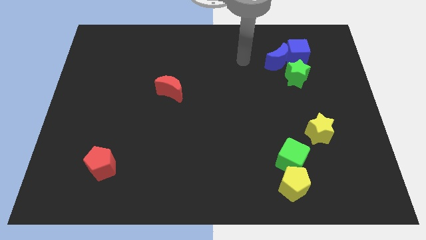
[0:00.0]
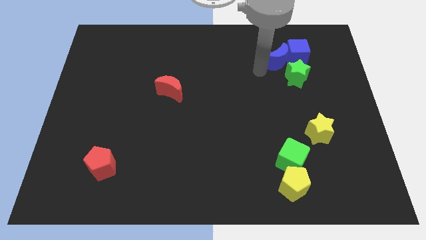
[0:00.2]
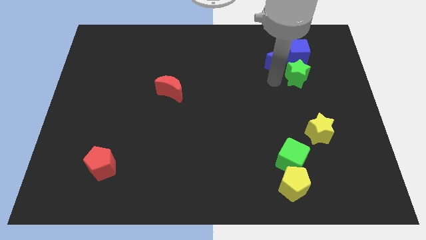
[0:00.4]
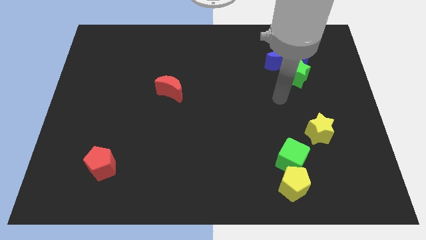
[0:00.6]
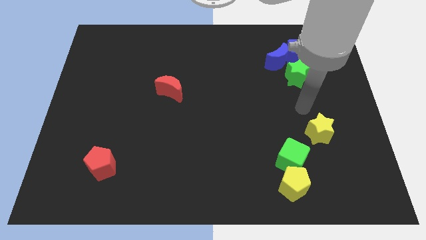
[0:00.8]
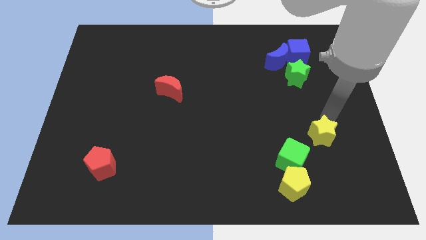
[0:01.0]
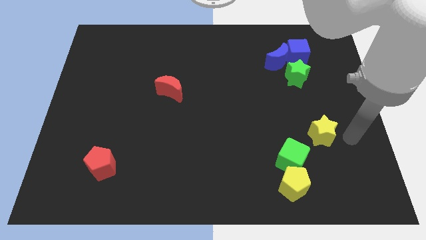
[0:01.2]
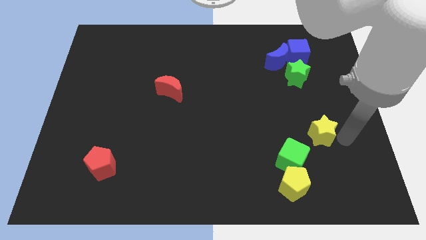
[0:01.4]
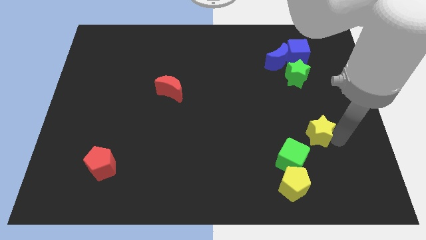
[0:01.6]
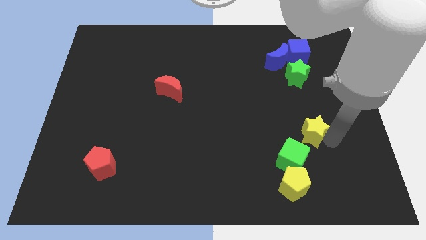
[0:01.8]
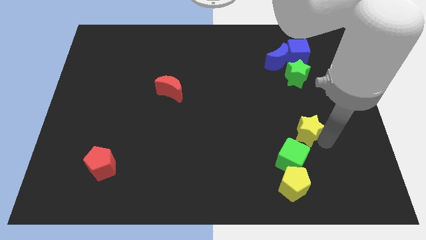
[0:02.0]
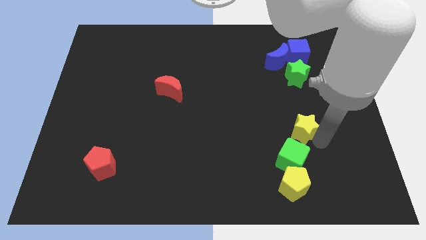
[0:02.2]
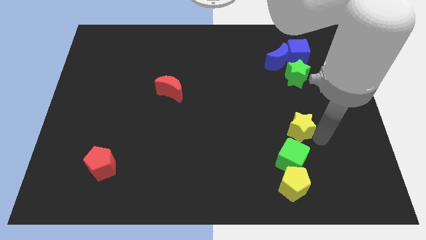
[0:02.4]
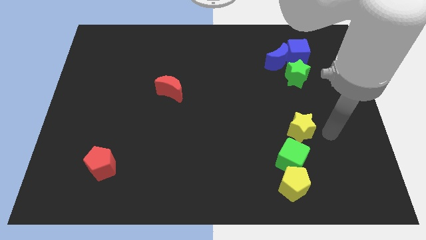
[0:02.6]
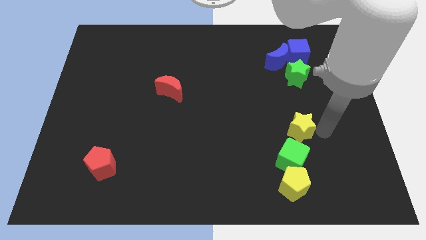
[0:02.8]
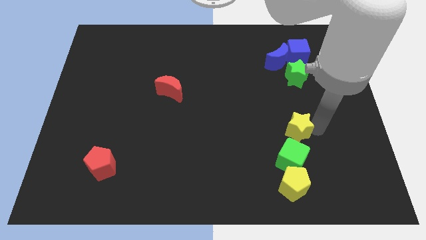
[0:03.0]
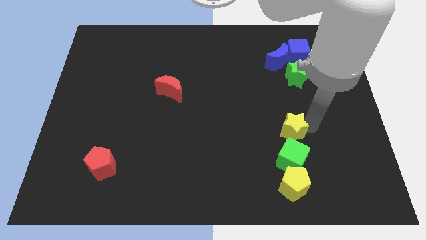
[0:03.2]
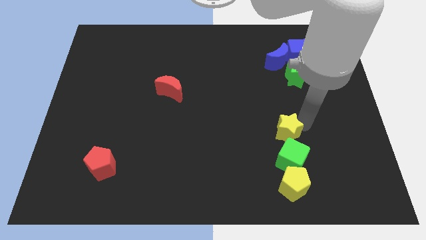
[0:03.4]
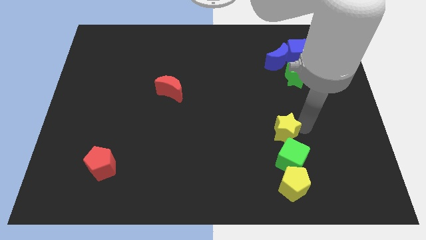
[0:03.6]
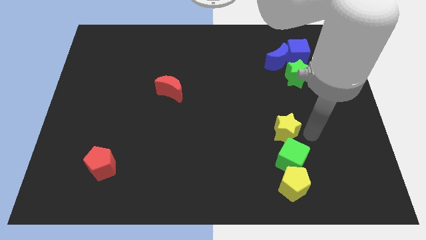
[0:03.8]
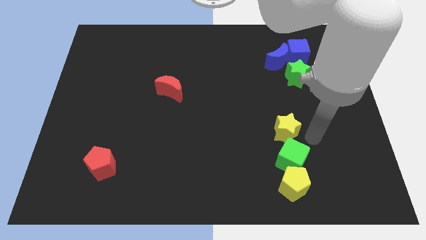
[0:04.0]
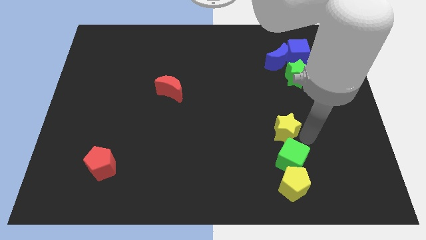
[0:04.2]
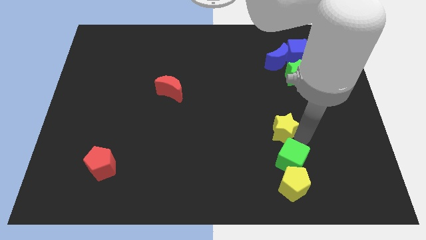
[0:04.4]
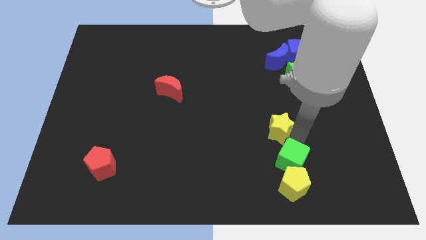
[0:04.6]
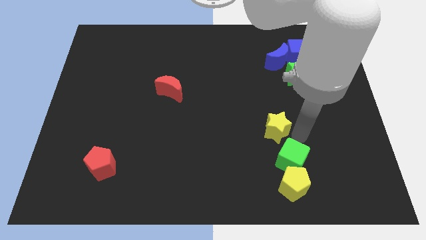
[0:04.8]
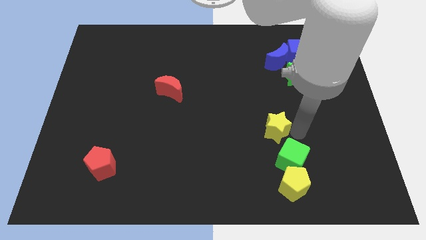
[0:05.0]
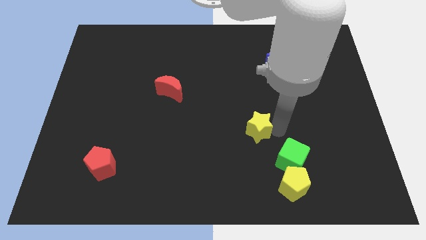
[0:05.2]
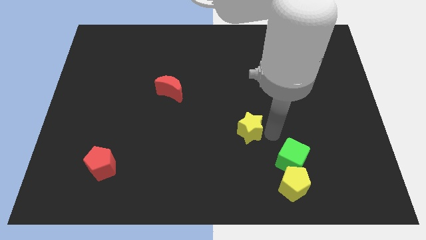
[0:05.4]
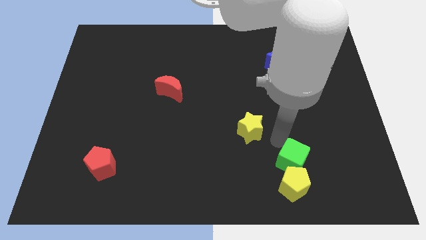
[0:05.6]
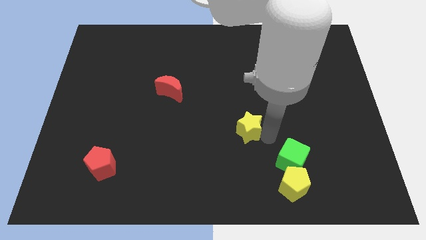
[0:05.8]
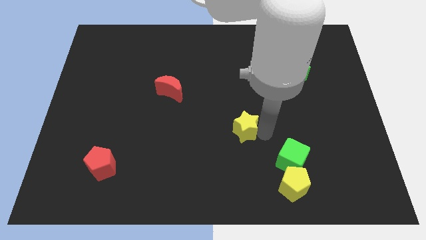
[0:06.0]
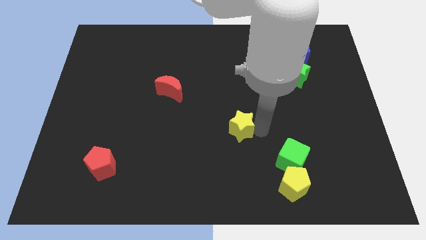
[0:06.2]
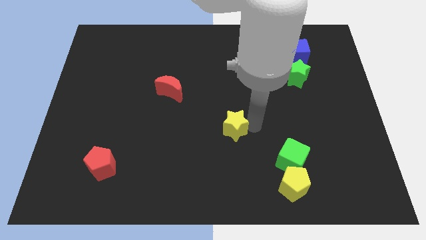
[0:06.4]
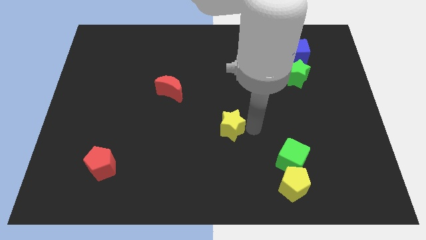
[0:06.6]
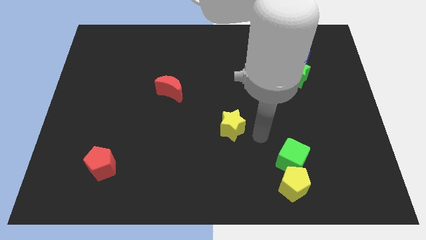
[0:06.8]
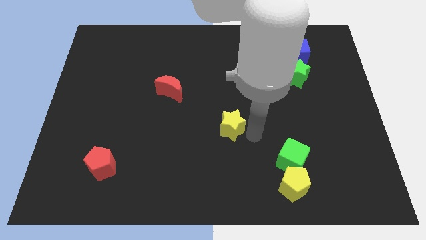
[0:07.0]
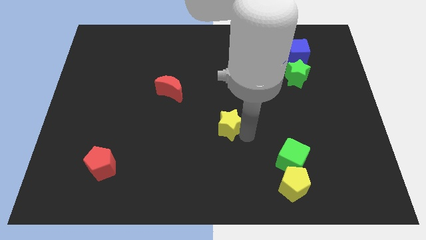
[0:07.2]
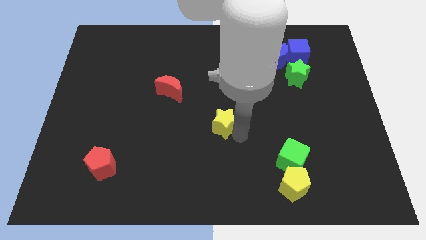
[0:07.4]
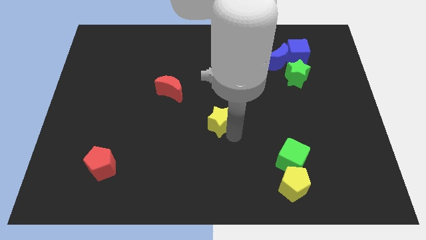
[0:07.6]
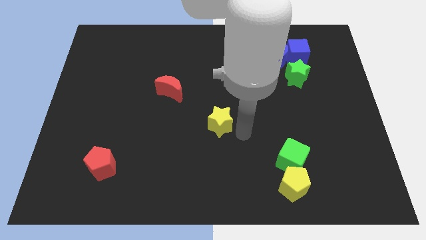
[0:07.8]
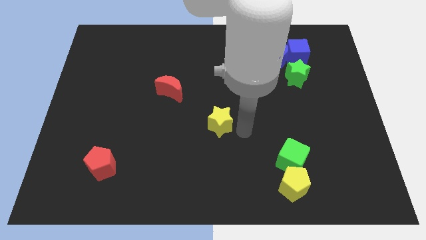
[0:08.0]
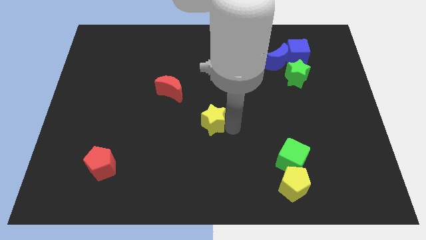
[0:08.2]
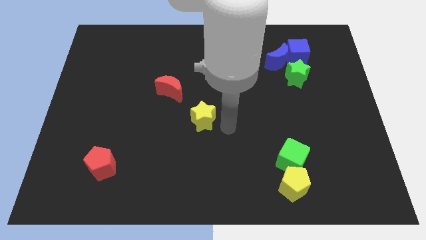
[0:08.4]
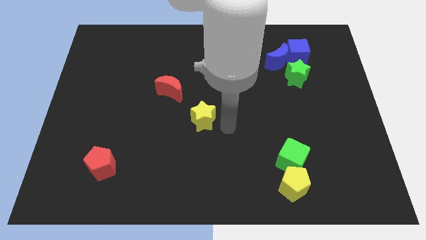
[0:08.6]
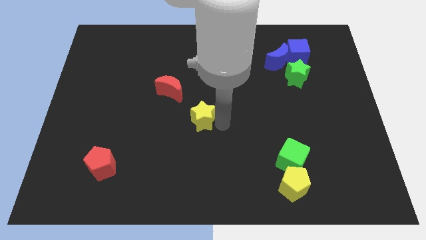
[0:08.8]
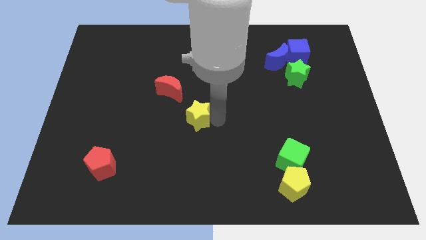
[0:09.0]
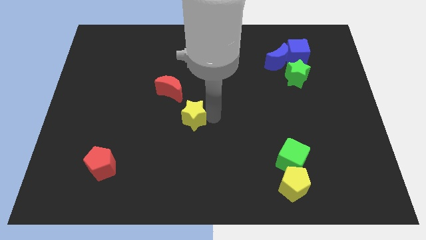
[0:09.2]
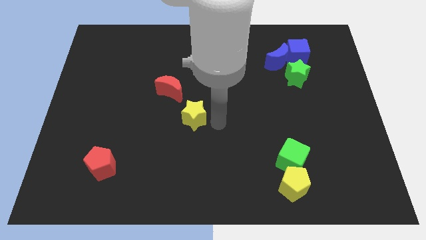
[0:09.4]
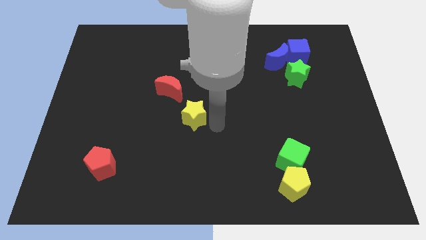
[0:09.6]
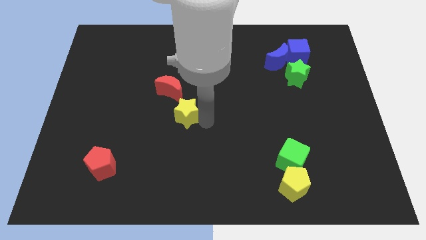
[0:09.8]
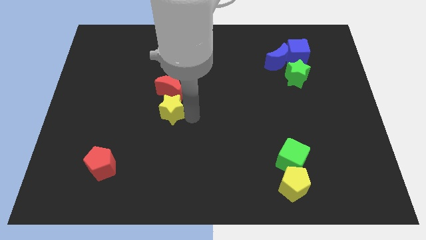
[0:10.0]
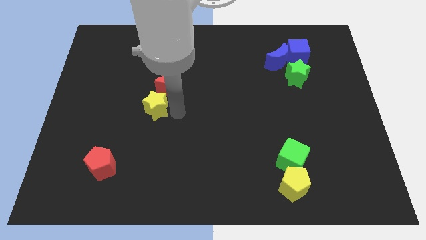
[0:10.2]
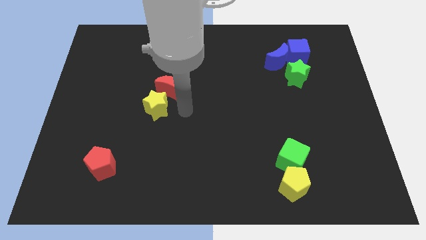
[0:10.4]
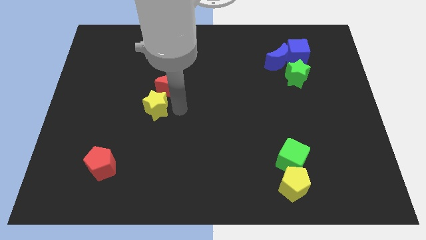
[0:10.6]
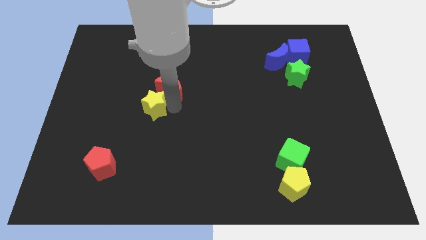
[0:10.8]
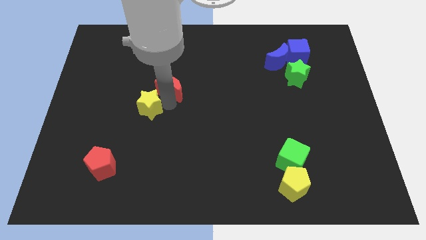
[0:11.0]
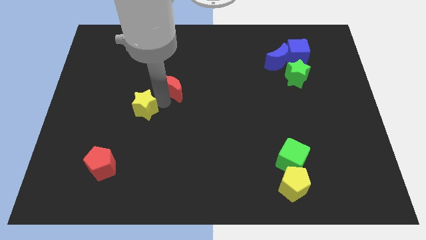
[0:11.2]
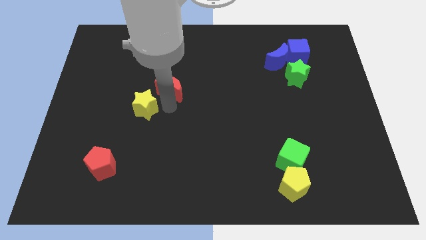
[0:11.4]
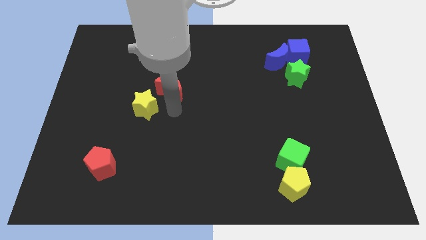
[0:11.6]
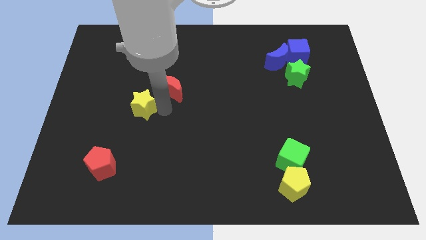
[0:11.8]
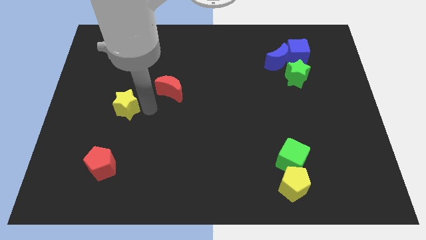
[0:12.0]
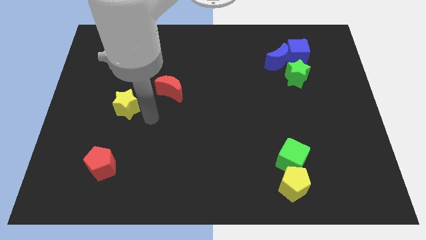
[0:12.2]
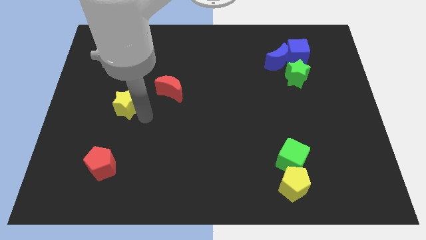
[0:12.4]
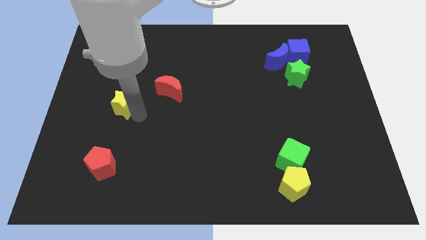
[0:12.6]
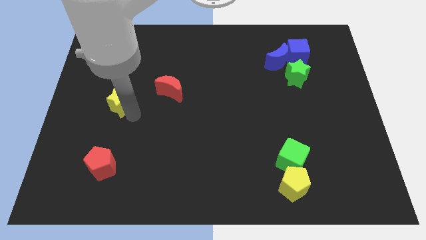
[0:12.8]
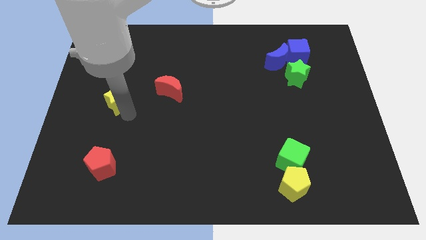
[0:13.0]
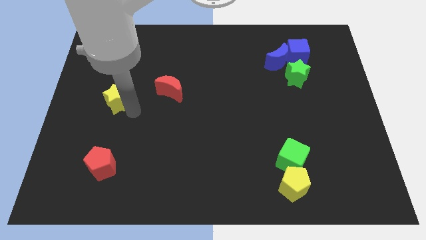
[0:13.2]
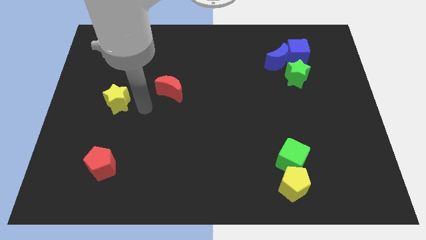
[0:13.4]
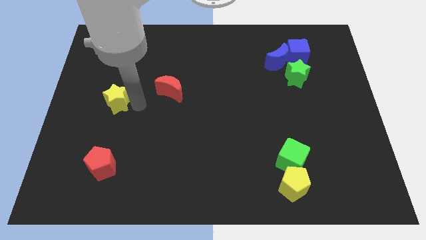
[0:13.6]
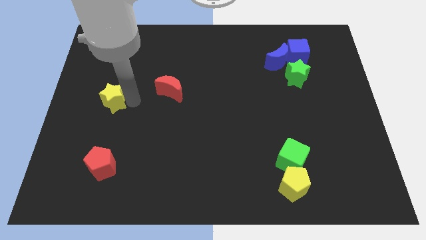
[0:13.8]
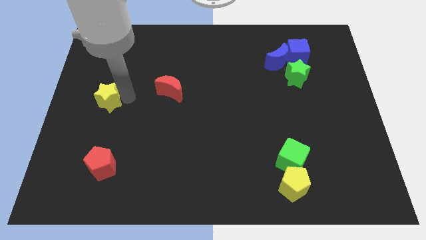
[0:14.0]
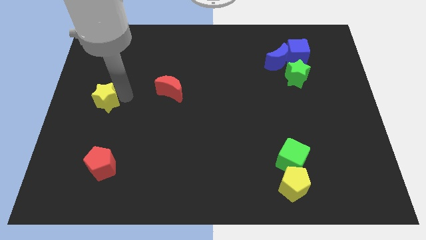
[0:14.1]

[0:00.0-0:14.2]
put the yellow star to the left side
